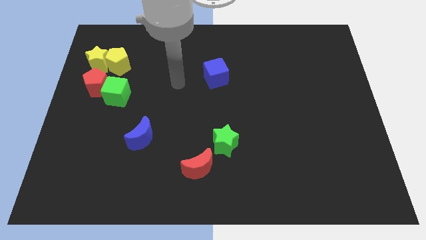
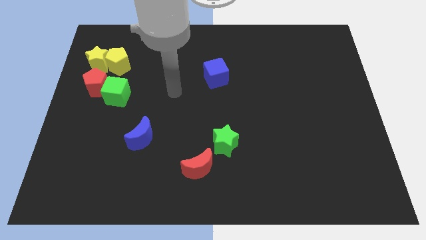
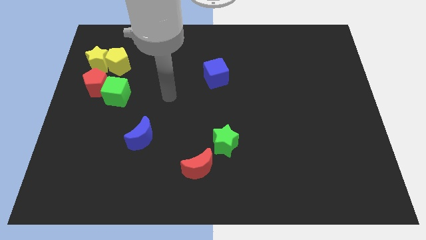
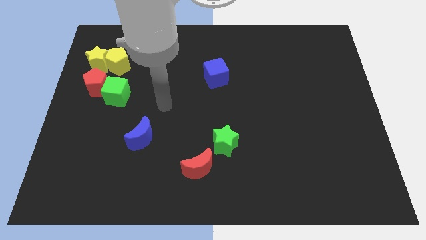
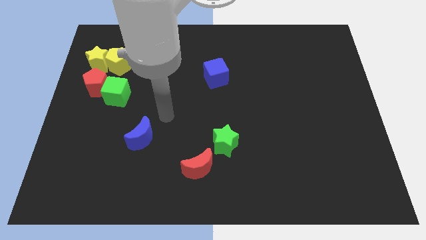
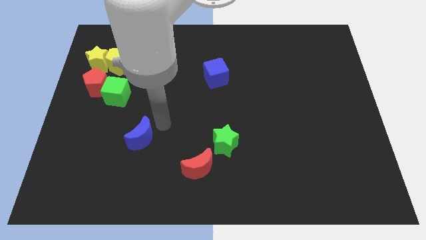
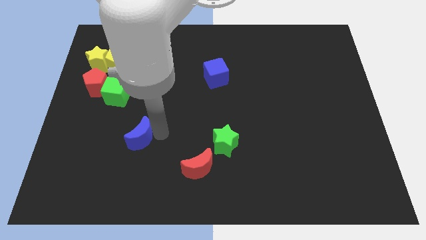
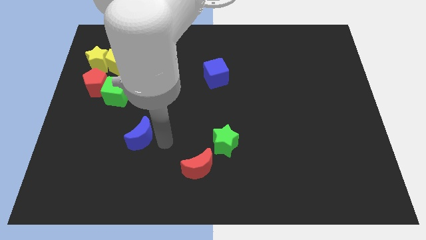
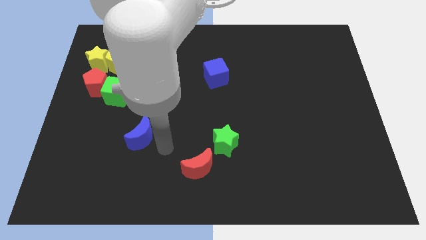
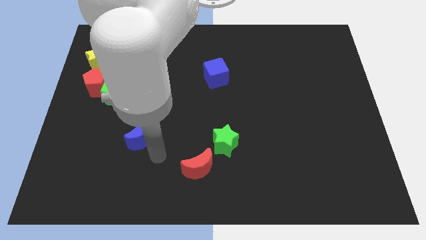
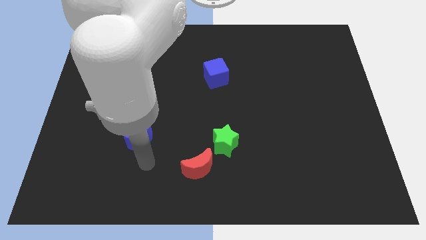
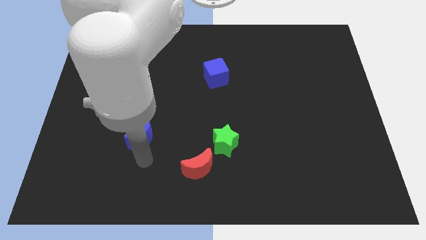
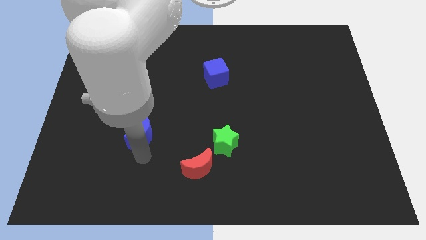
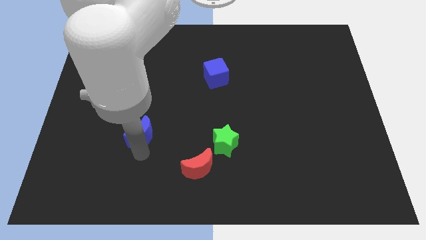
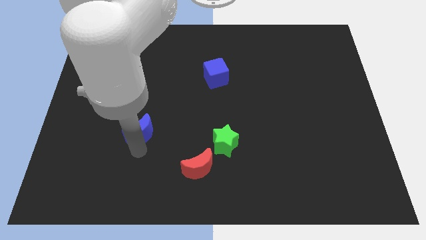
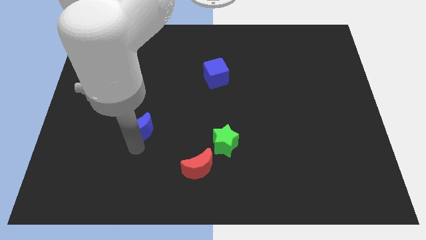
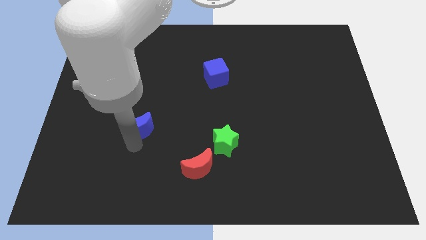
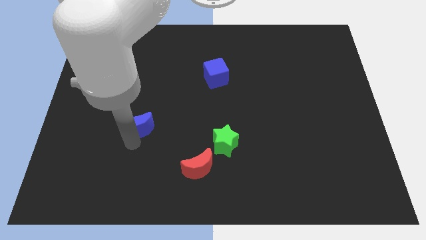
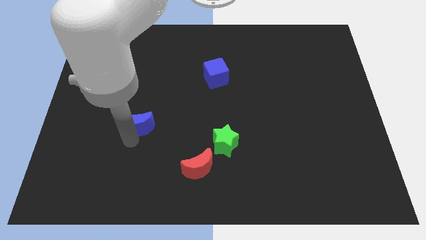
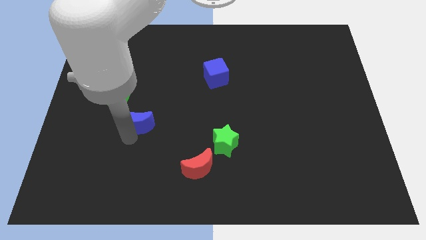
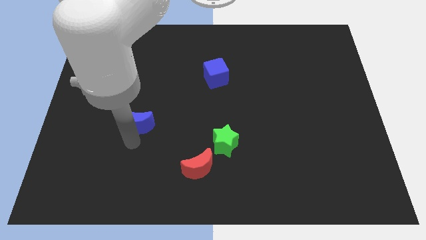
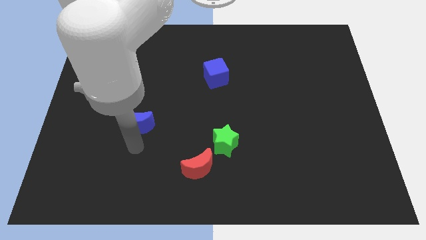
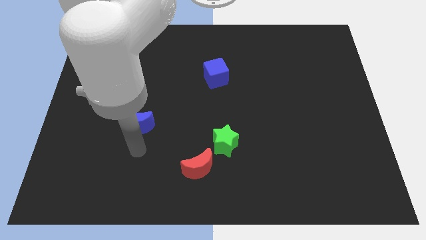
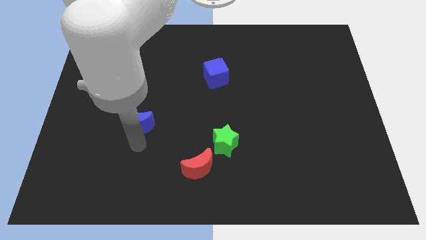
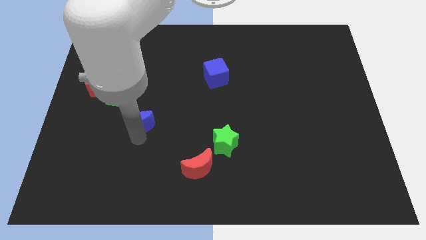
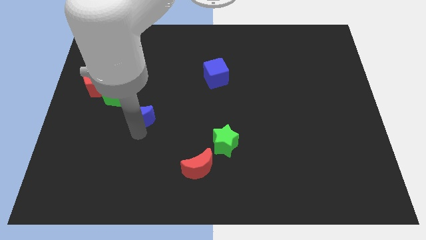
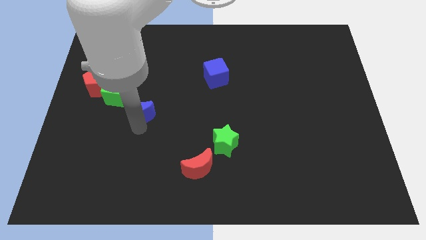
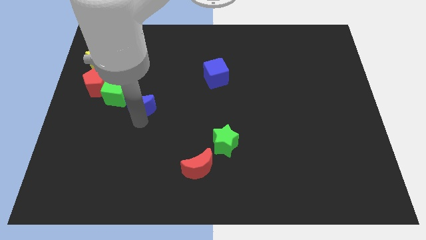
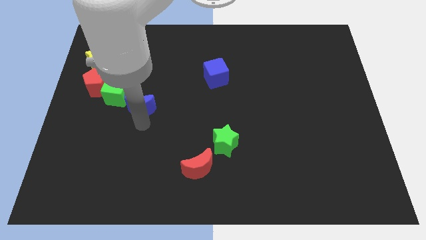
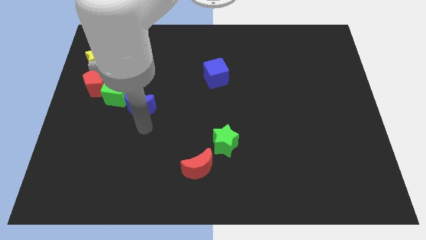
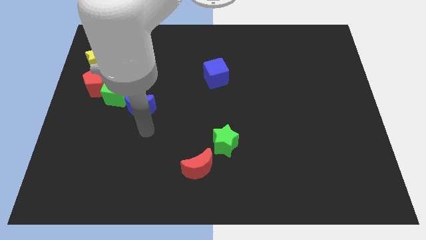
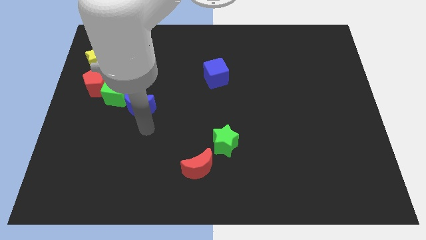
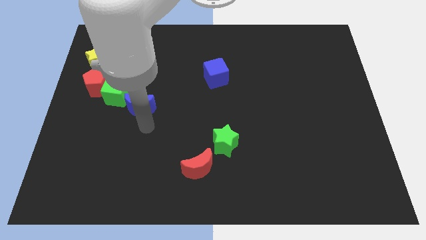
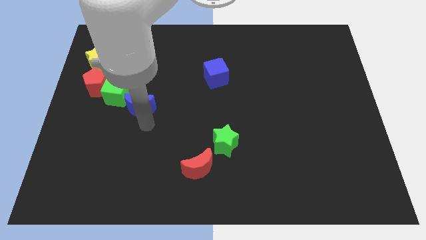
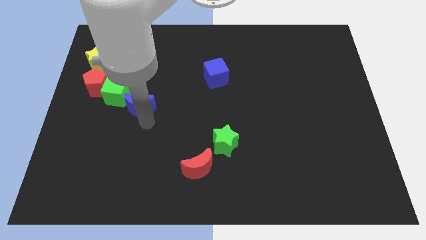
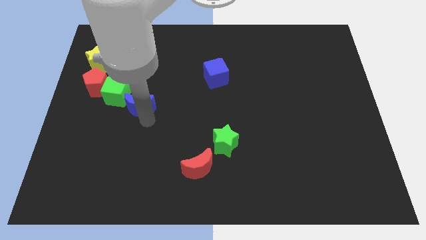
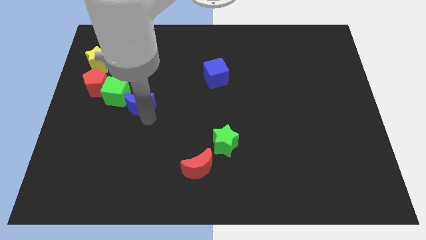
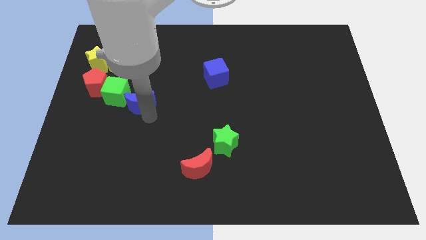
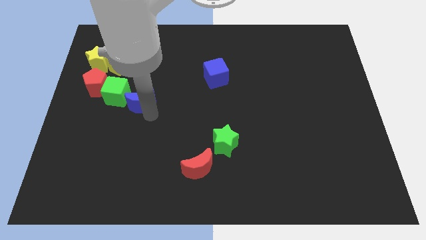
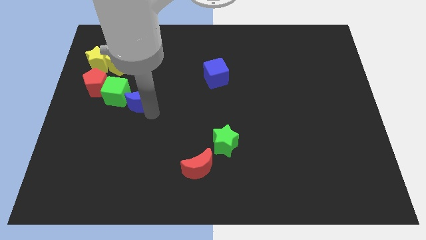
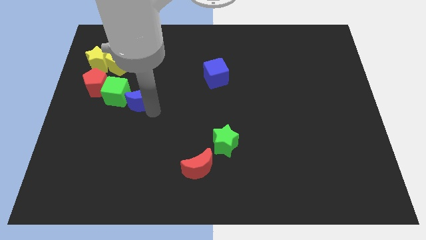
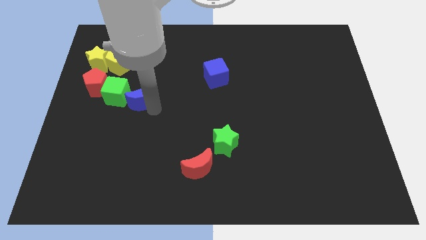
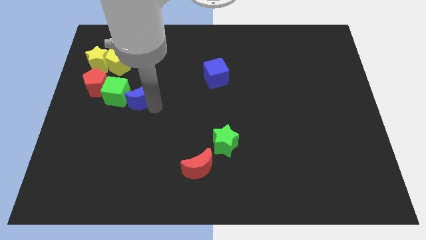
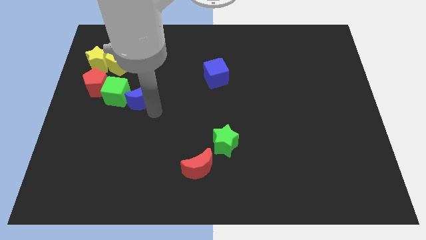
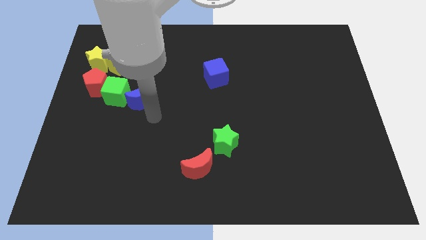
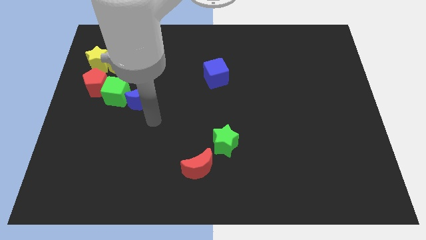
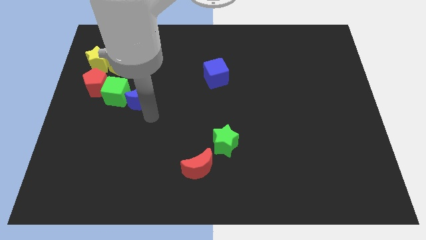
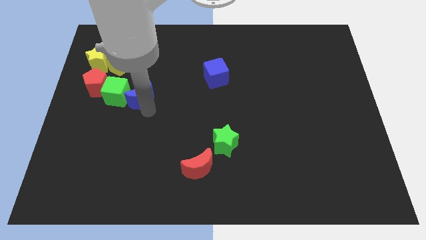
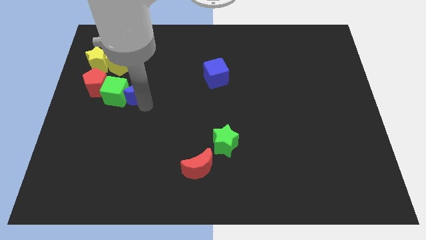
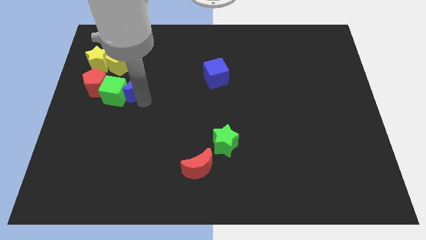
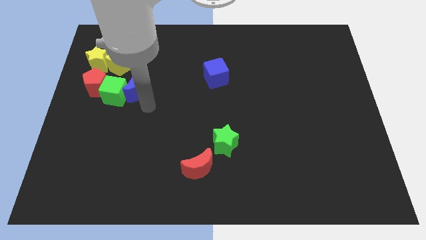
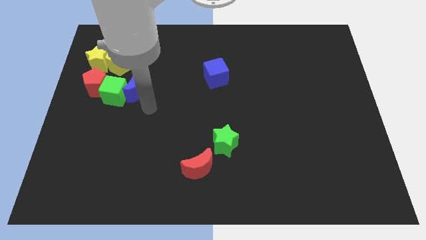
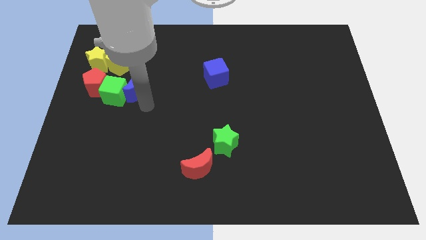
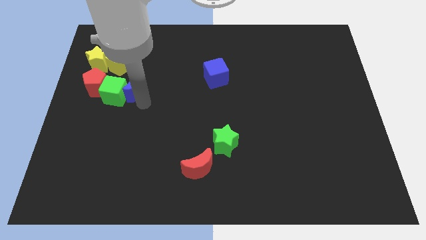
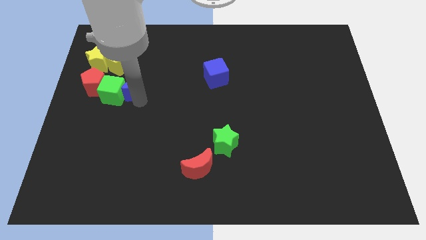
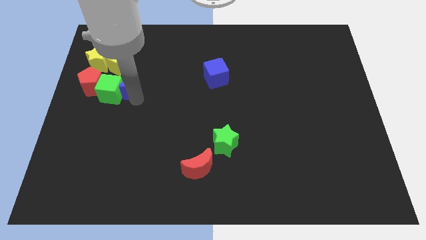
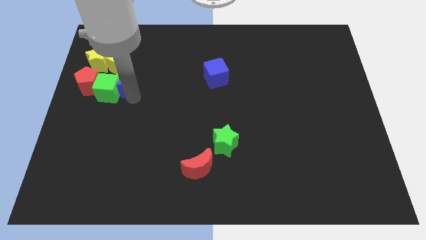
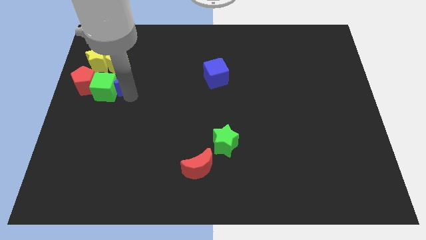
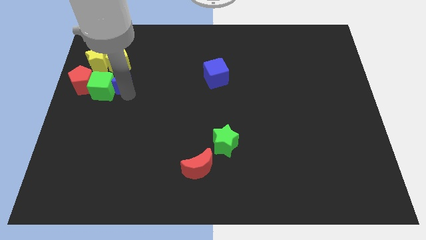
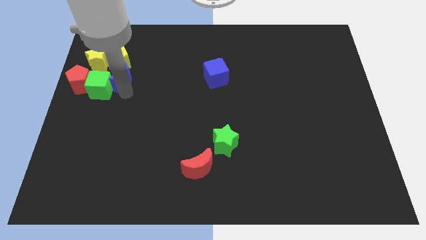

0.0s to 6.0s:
slide the blue moon towards the yellow pentagon

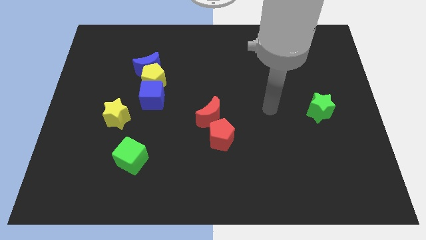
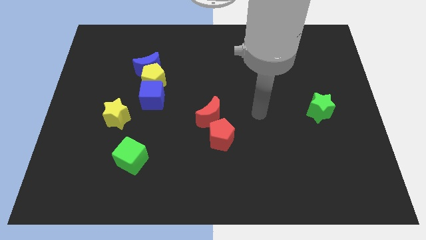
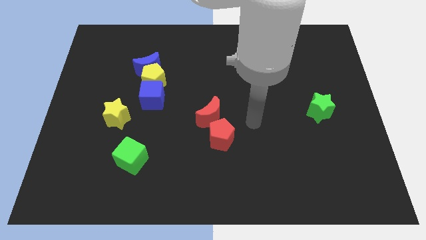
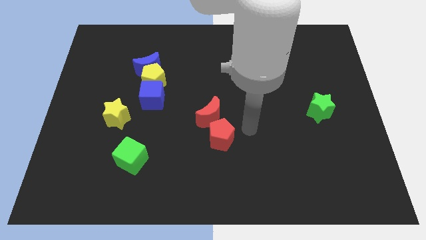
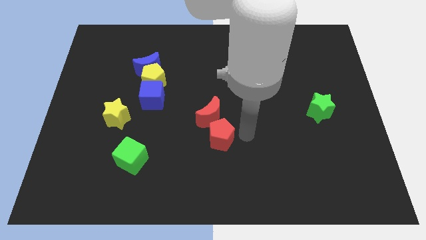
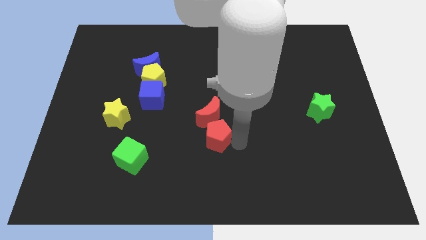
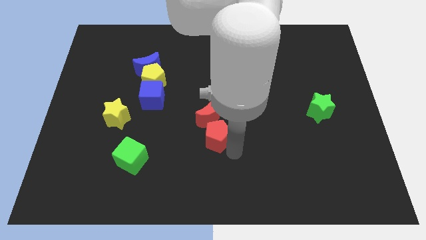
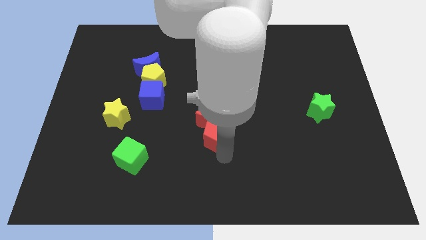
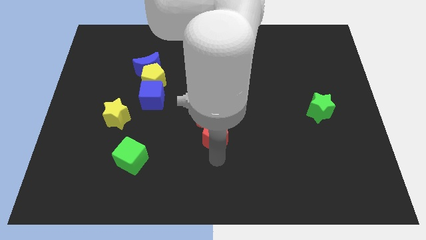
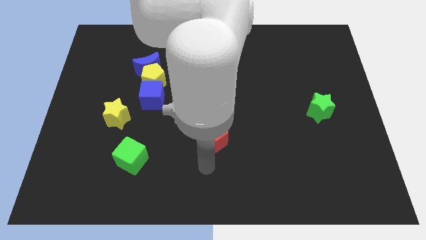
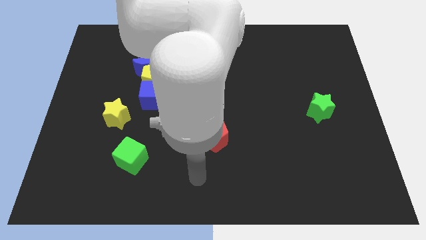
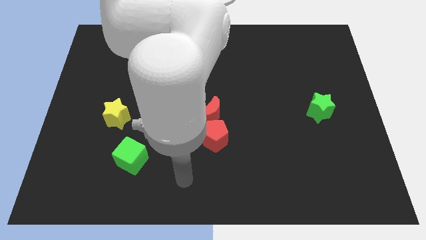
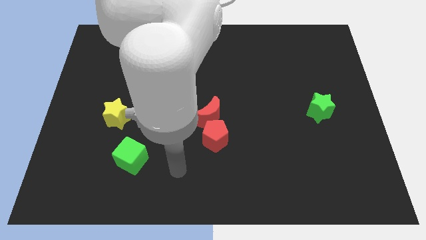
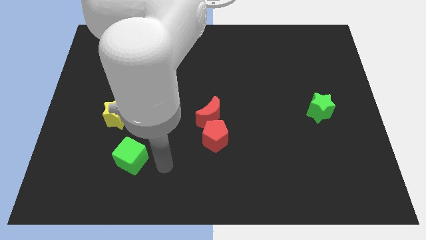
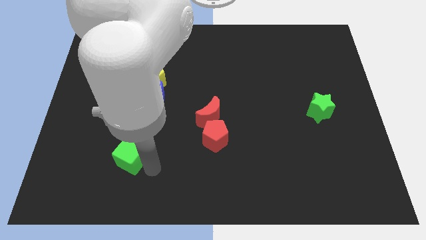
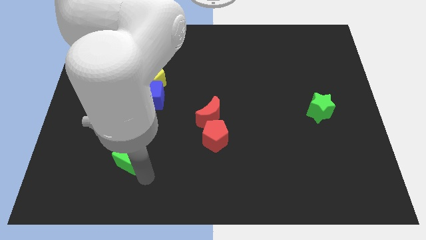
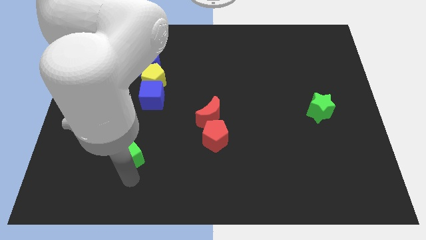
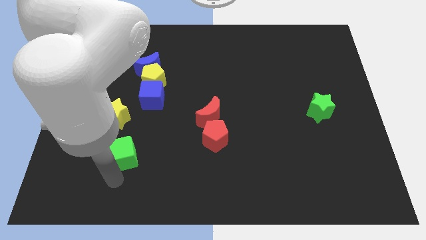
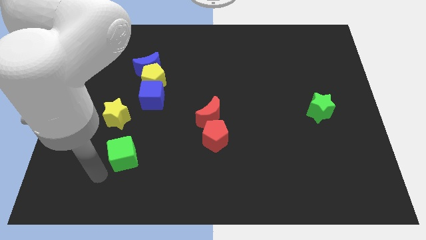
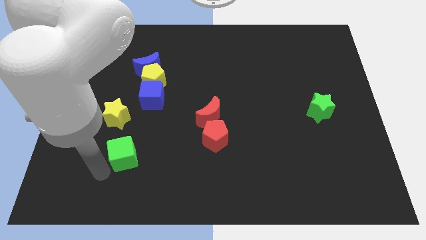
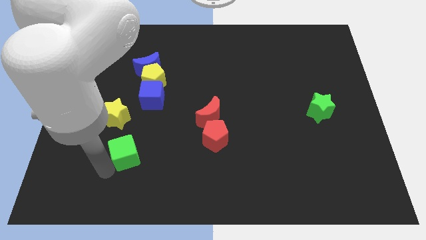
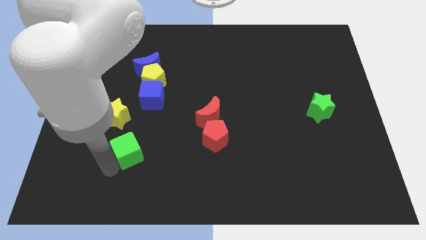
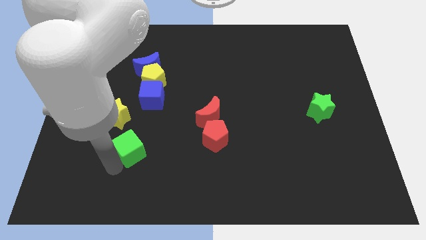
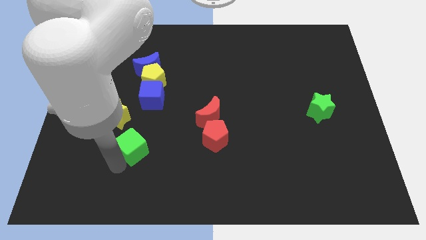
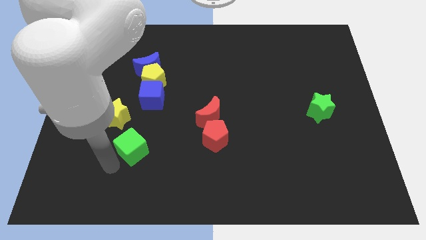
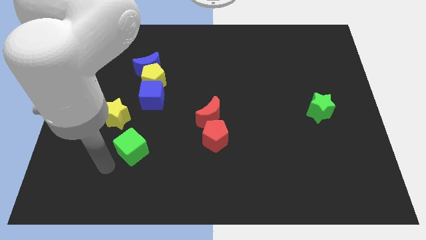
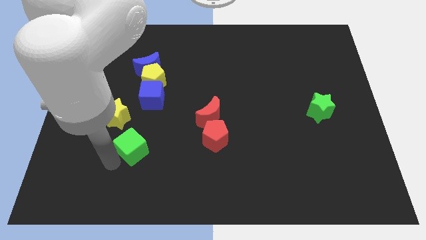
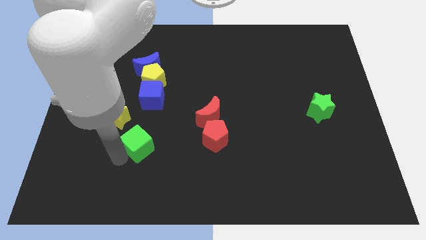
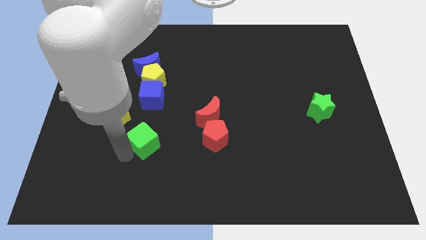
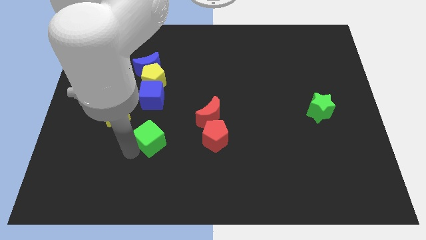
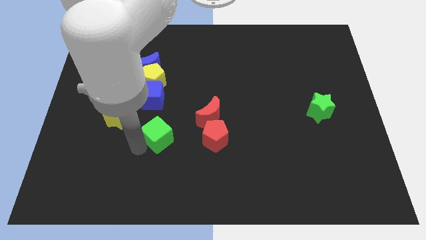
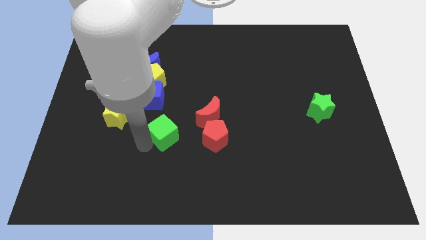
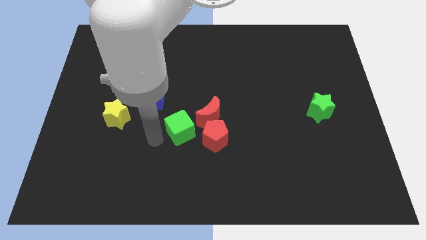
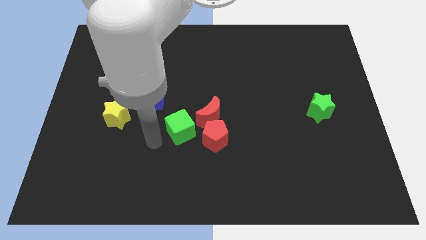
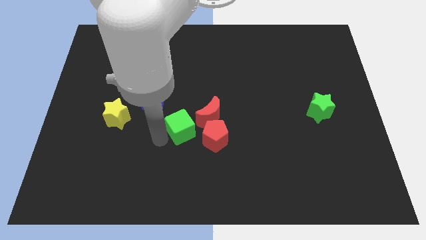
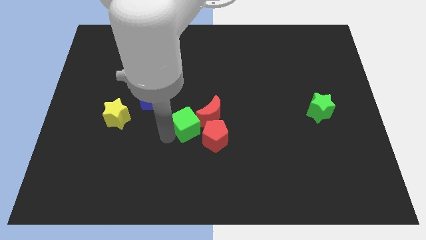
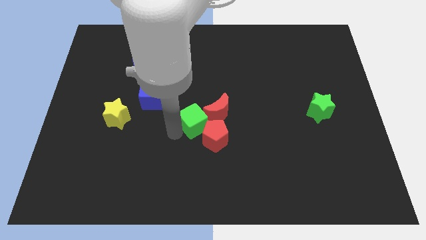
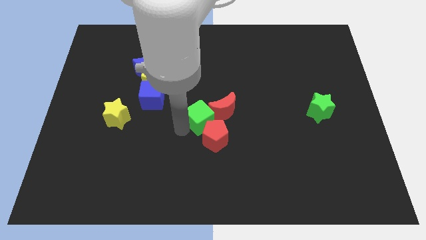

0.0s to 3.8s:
move the green cube next to the red moon
